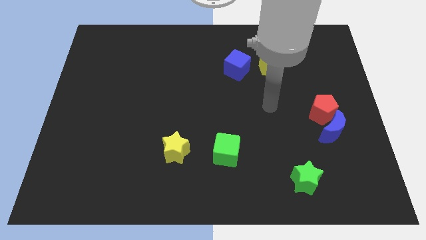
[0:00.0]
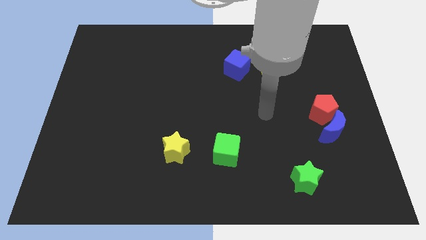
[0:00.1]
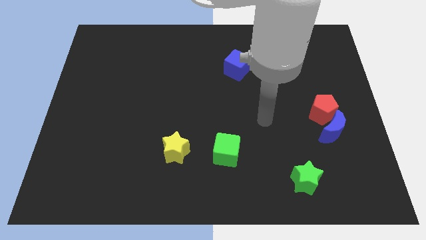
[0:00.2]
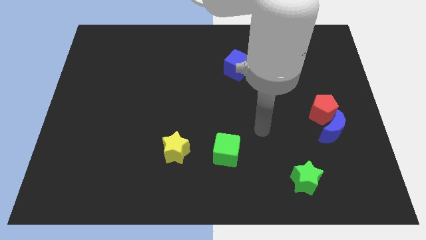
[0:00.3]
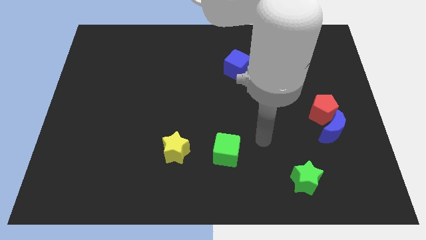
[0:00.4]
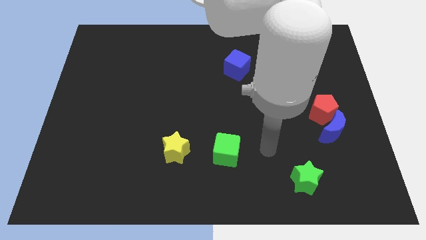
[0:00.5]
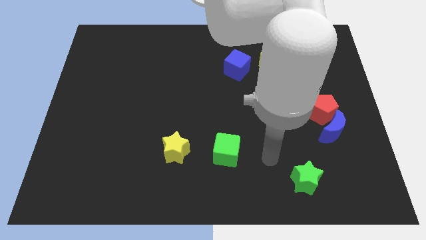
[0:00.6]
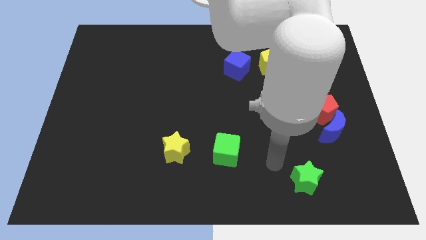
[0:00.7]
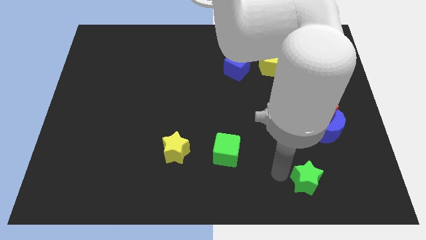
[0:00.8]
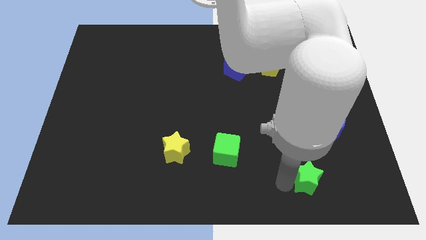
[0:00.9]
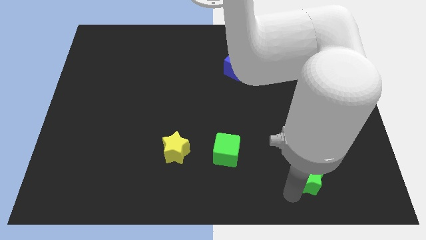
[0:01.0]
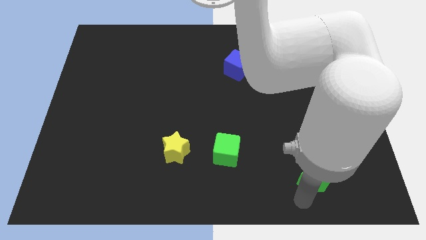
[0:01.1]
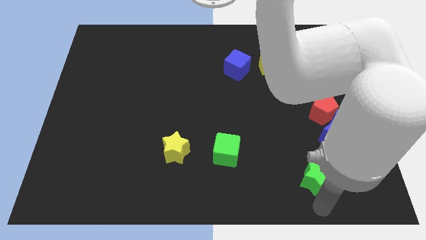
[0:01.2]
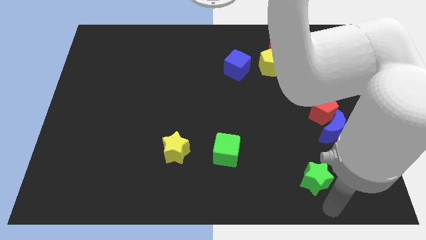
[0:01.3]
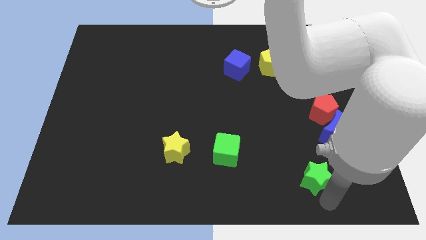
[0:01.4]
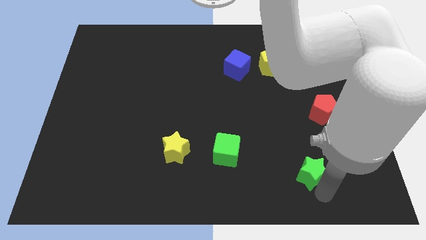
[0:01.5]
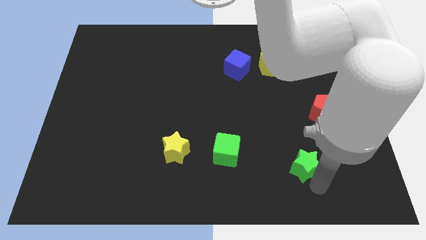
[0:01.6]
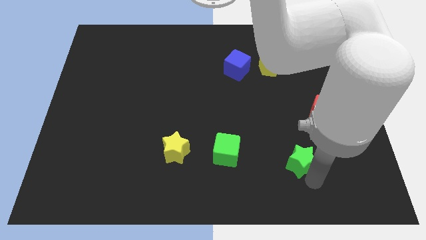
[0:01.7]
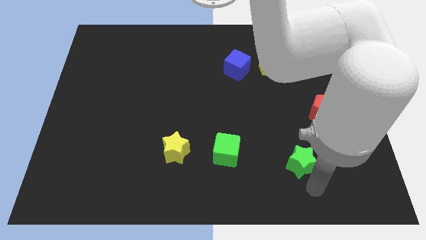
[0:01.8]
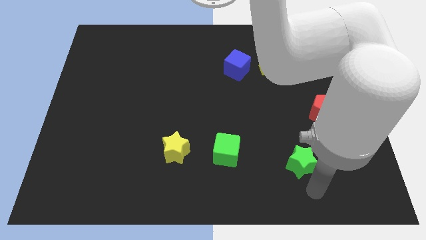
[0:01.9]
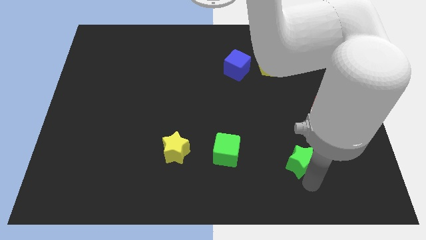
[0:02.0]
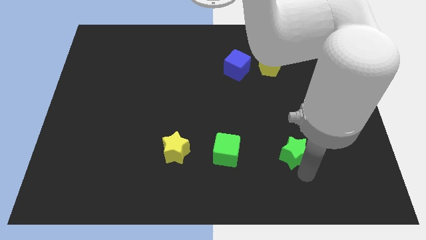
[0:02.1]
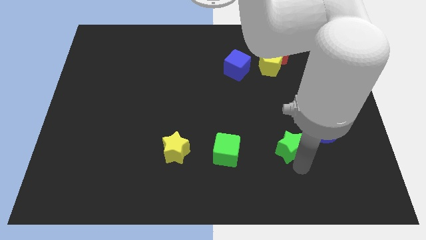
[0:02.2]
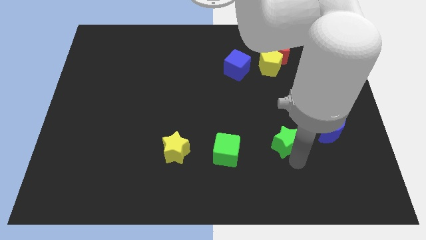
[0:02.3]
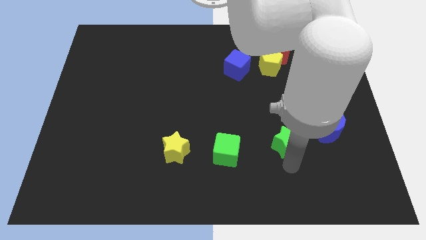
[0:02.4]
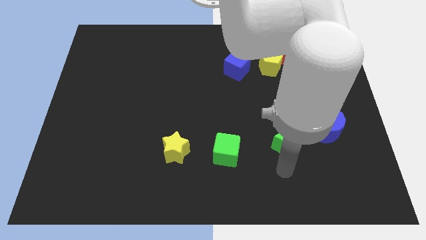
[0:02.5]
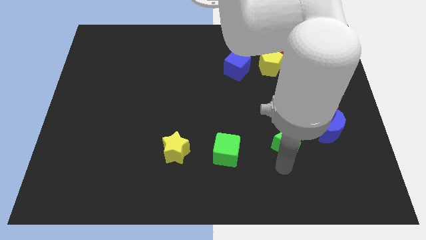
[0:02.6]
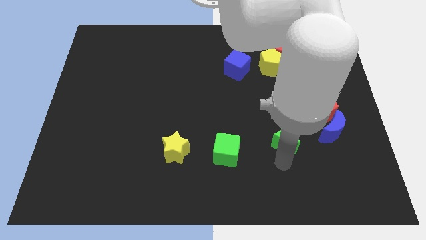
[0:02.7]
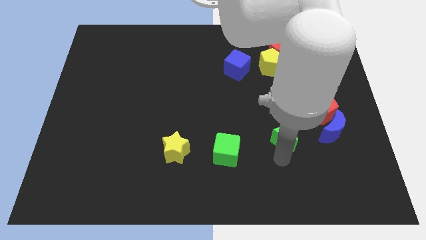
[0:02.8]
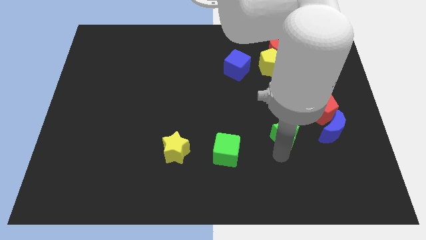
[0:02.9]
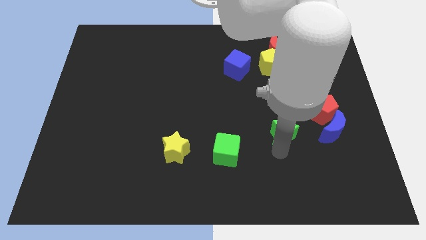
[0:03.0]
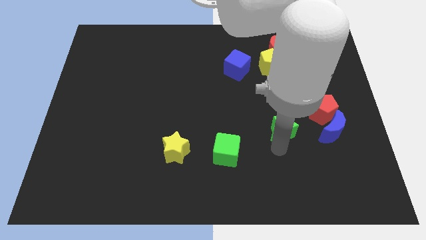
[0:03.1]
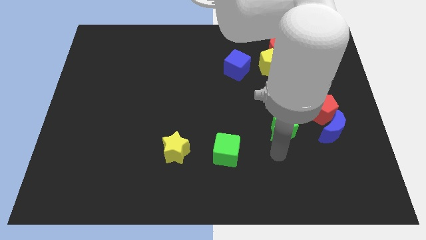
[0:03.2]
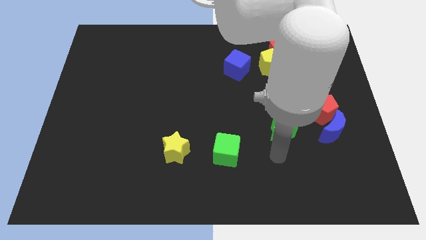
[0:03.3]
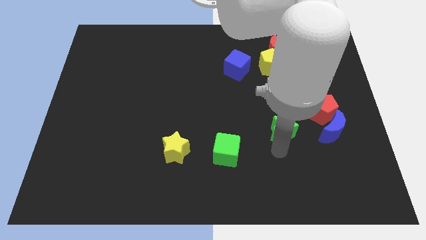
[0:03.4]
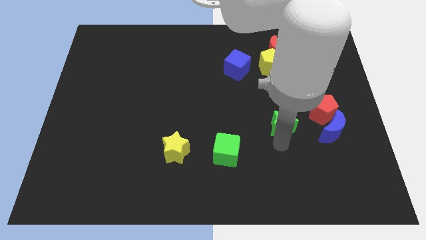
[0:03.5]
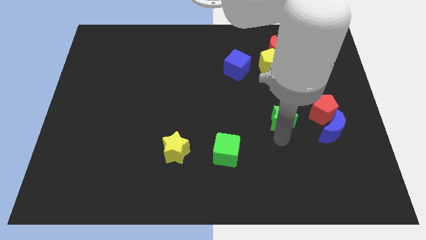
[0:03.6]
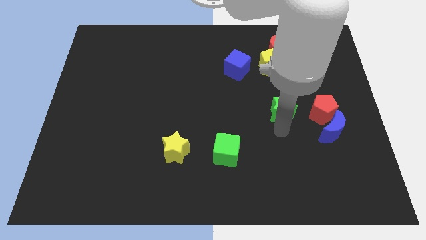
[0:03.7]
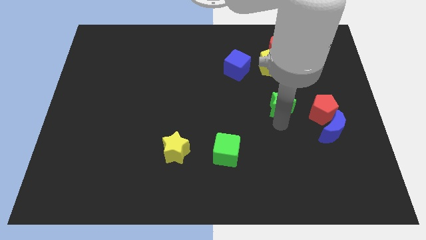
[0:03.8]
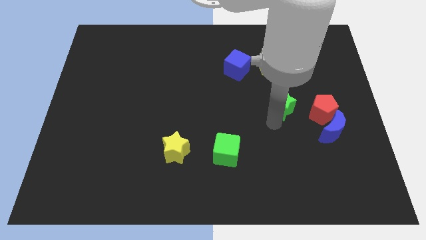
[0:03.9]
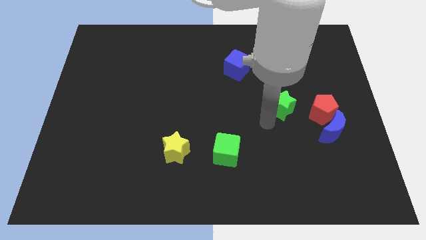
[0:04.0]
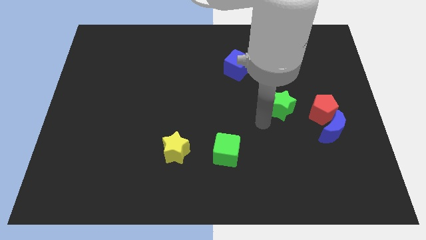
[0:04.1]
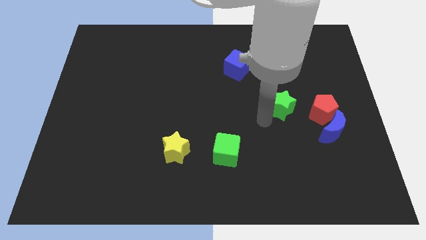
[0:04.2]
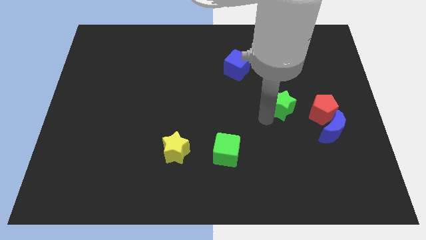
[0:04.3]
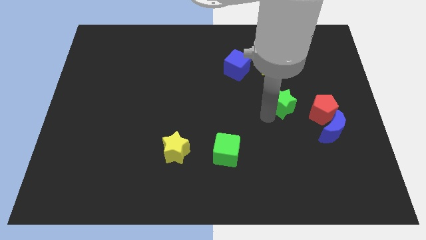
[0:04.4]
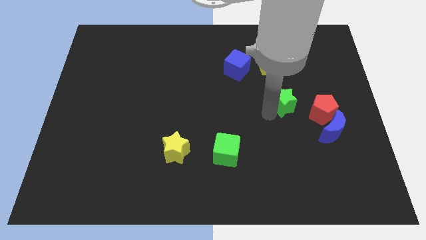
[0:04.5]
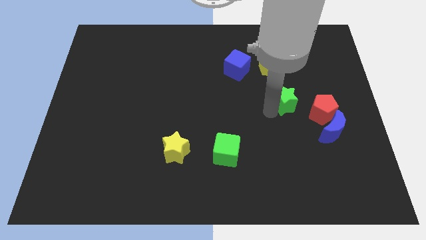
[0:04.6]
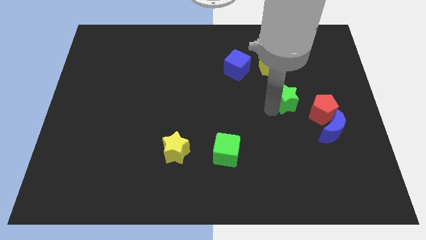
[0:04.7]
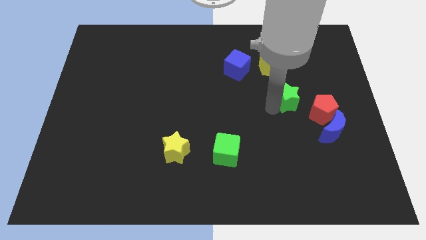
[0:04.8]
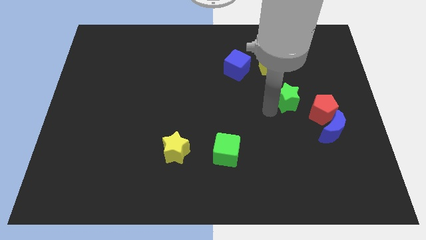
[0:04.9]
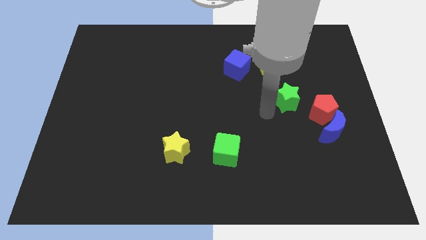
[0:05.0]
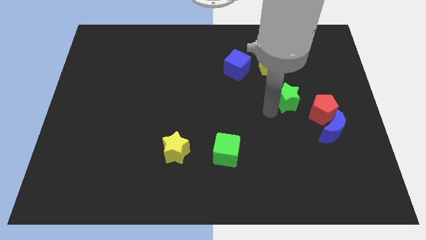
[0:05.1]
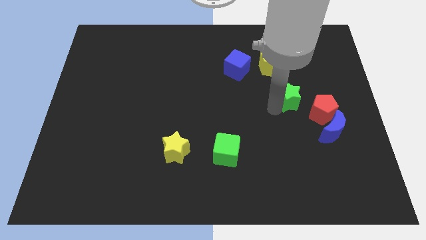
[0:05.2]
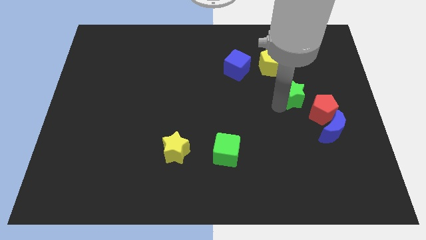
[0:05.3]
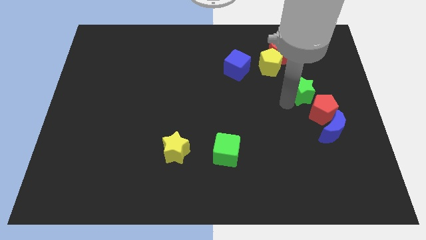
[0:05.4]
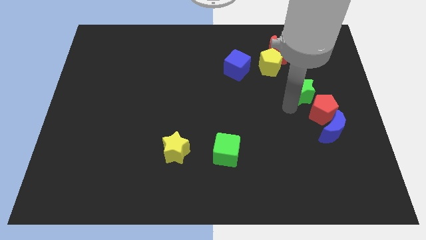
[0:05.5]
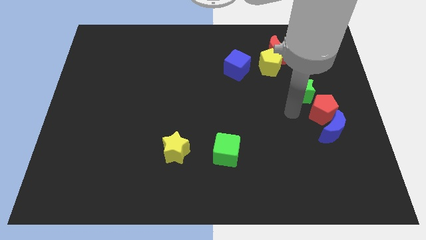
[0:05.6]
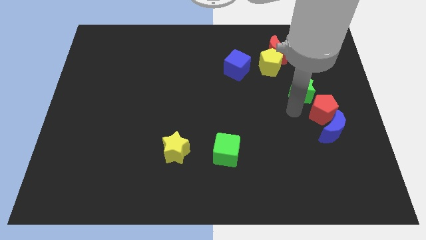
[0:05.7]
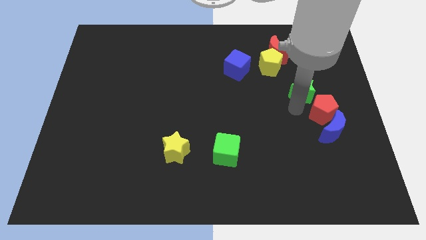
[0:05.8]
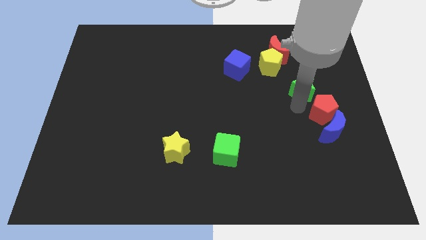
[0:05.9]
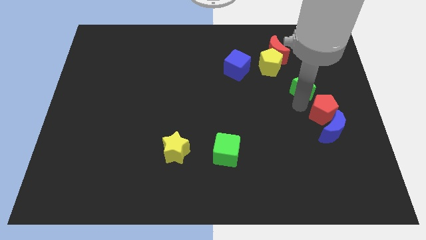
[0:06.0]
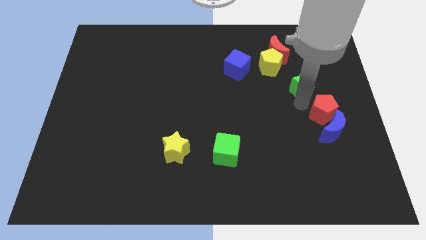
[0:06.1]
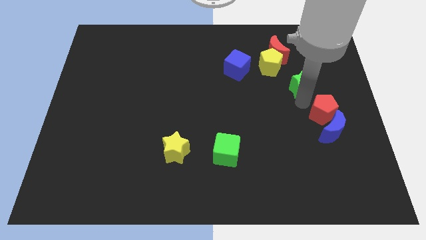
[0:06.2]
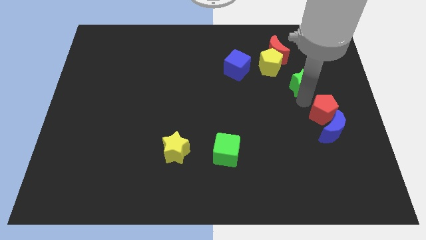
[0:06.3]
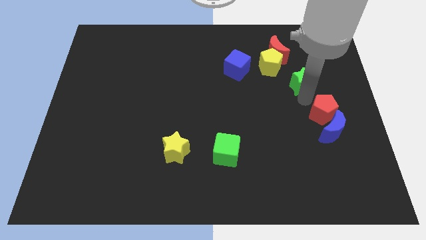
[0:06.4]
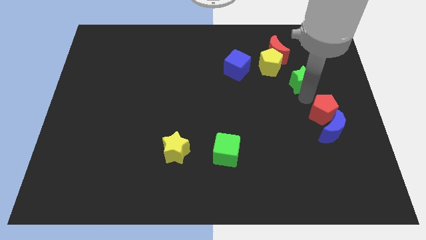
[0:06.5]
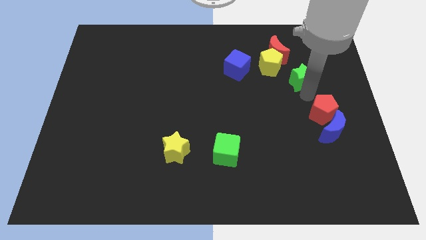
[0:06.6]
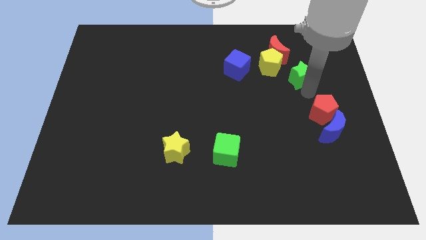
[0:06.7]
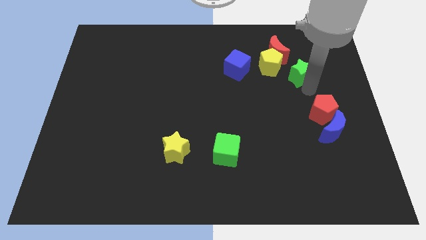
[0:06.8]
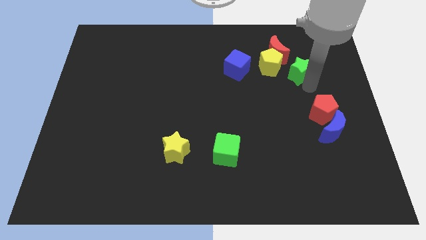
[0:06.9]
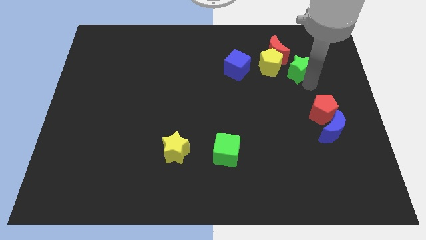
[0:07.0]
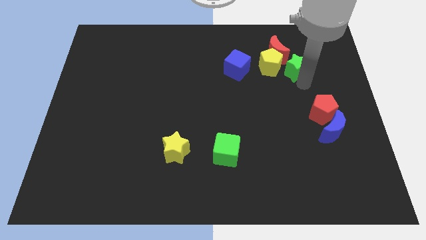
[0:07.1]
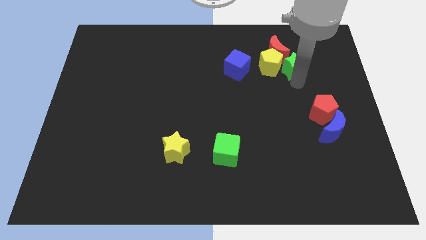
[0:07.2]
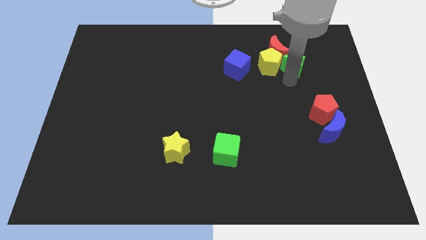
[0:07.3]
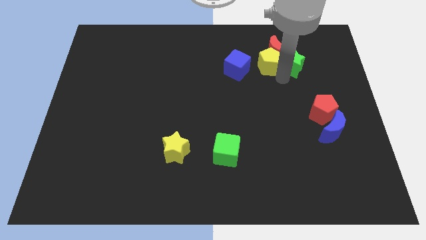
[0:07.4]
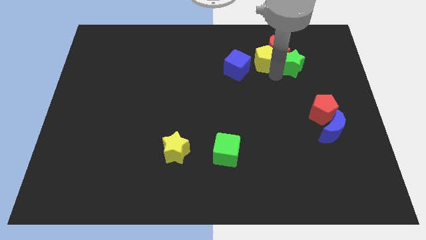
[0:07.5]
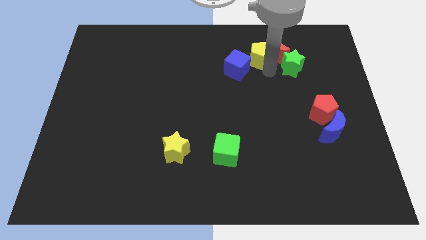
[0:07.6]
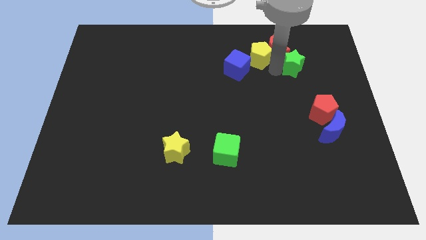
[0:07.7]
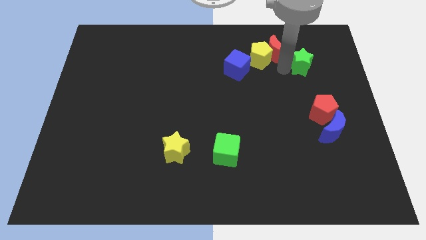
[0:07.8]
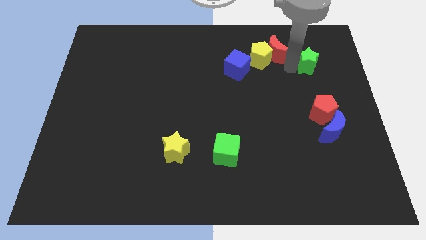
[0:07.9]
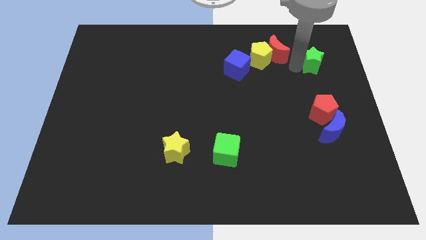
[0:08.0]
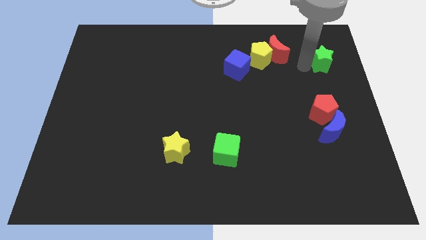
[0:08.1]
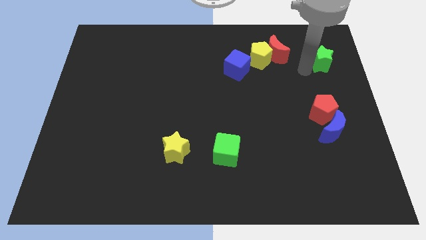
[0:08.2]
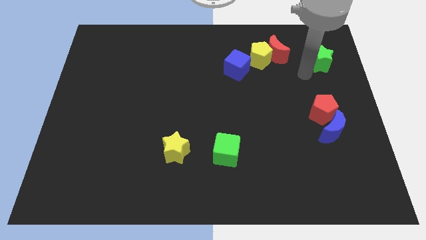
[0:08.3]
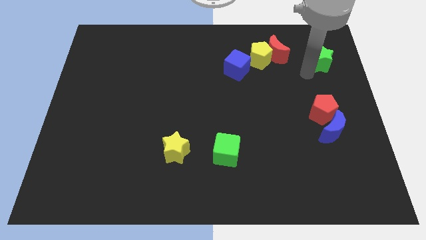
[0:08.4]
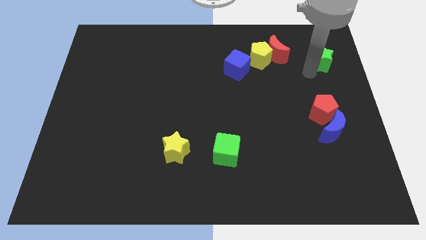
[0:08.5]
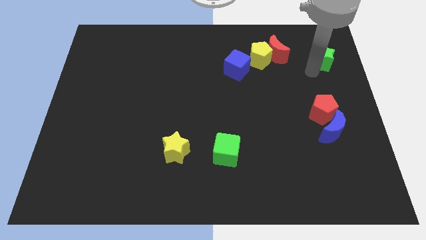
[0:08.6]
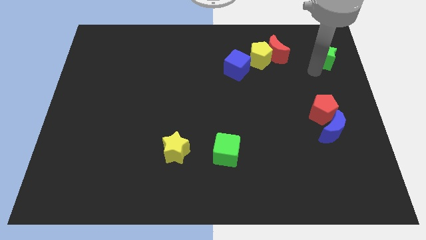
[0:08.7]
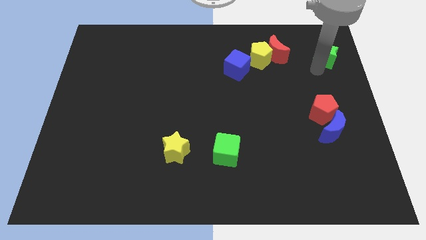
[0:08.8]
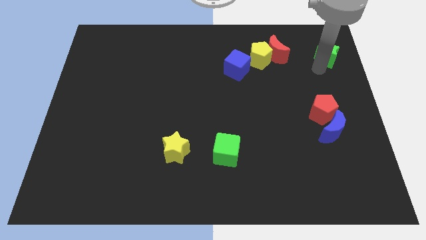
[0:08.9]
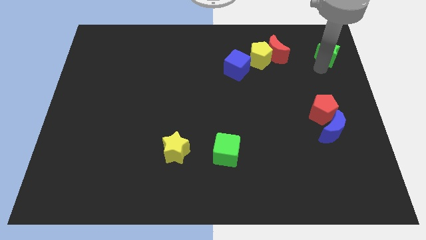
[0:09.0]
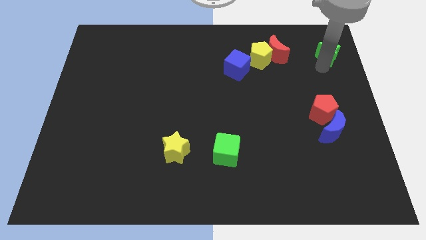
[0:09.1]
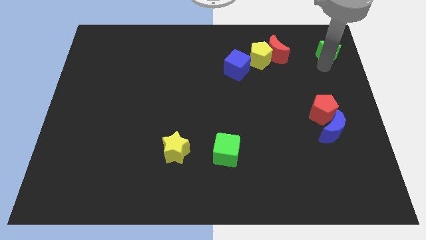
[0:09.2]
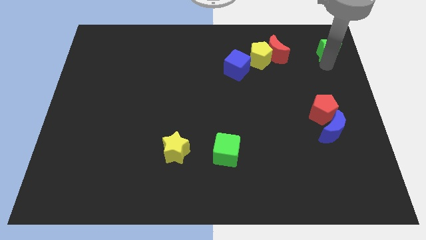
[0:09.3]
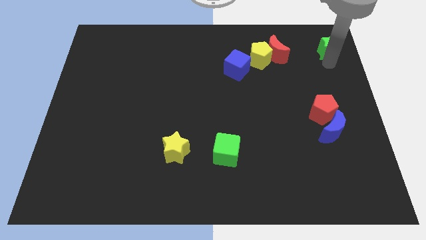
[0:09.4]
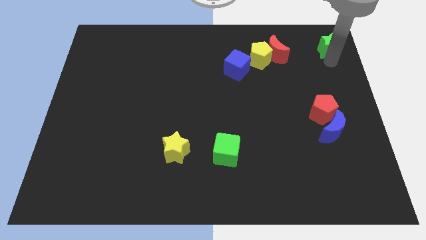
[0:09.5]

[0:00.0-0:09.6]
move the green star to the top right of the board
